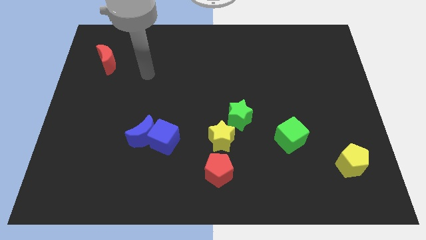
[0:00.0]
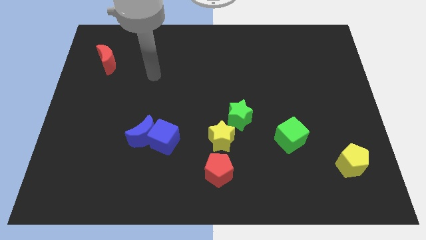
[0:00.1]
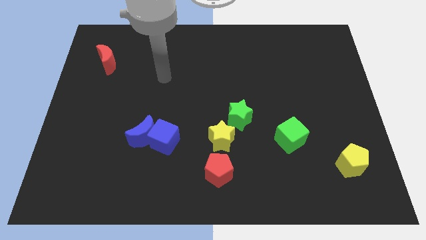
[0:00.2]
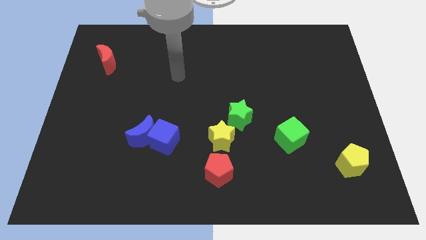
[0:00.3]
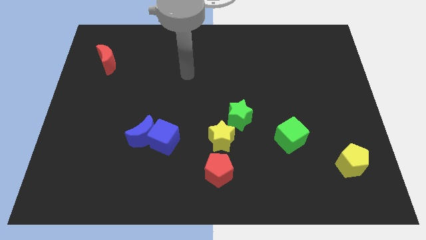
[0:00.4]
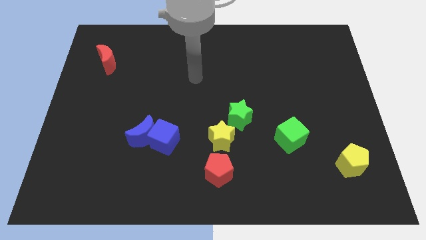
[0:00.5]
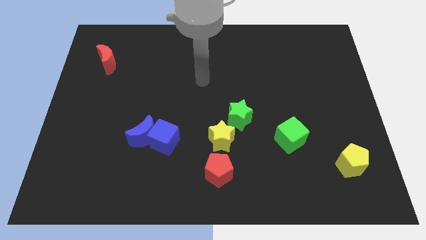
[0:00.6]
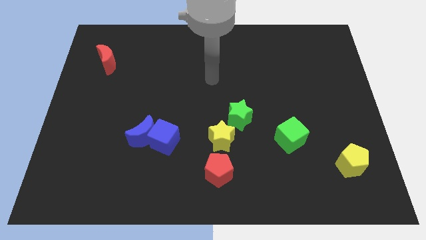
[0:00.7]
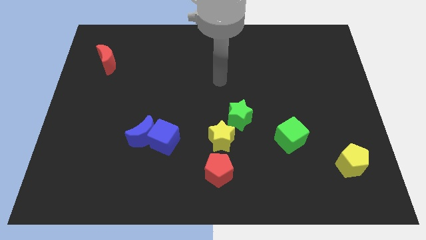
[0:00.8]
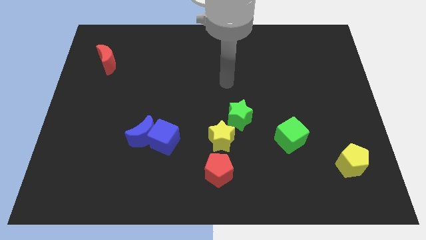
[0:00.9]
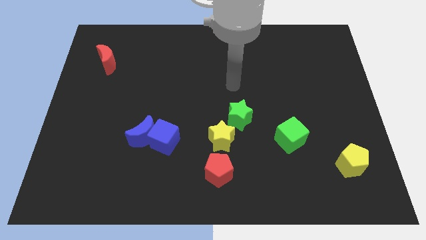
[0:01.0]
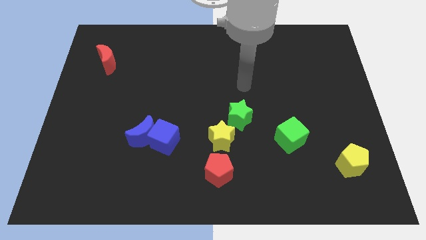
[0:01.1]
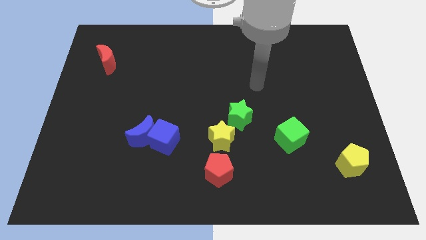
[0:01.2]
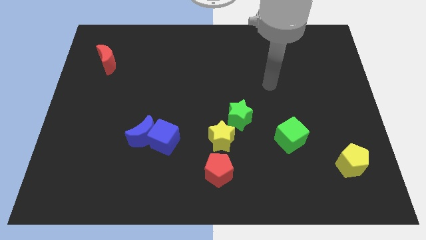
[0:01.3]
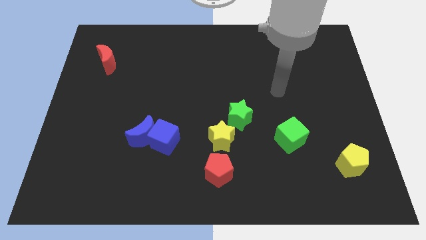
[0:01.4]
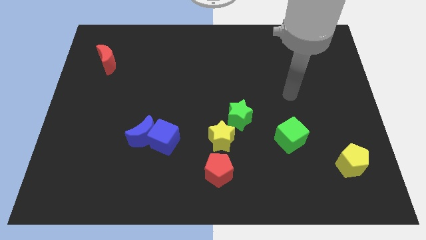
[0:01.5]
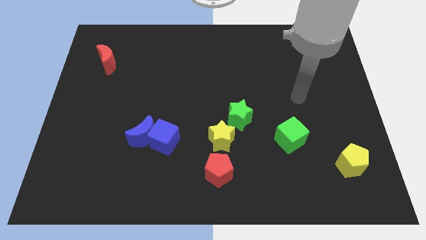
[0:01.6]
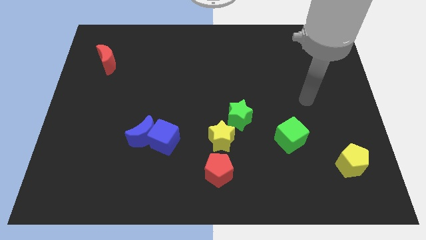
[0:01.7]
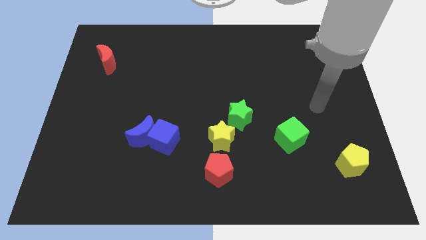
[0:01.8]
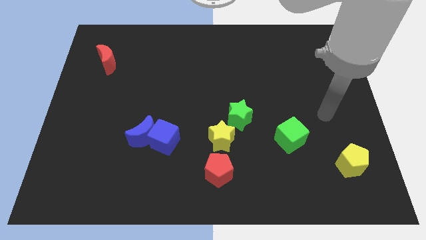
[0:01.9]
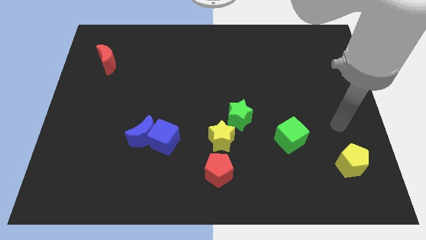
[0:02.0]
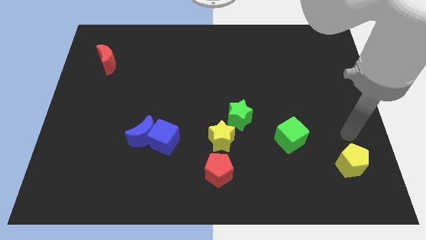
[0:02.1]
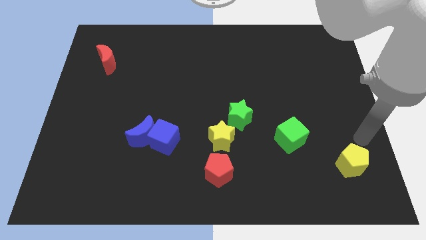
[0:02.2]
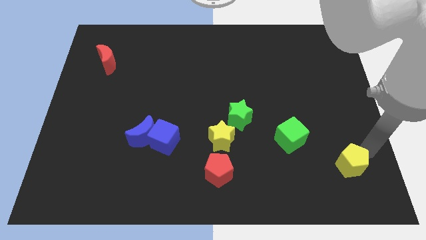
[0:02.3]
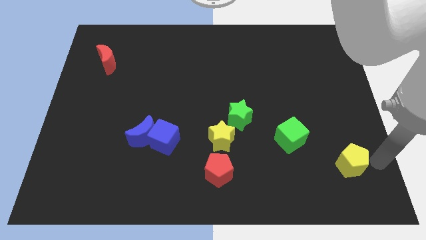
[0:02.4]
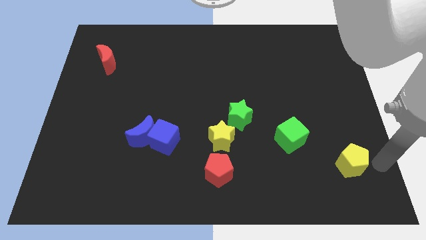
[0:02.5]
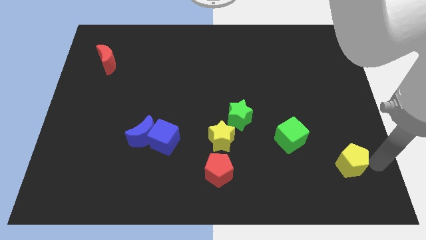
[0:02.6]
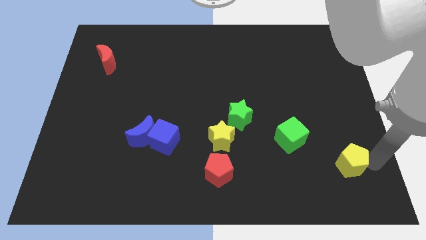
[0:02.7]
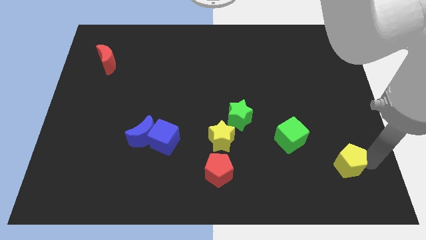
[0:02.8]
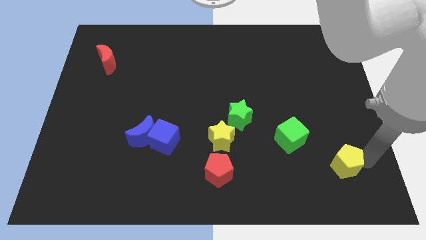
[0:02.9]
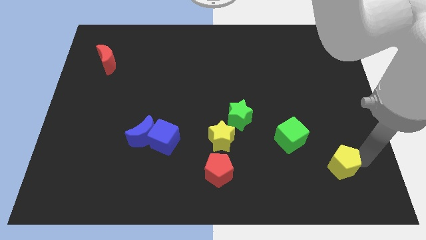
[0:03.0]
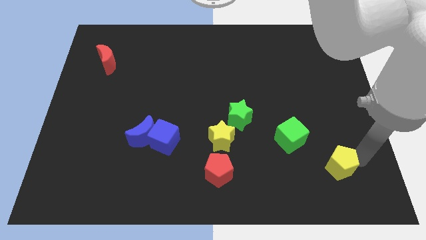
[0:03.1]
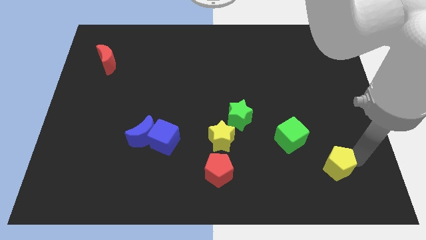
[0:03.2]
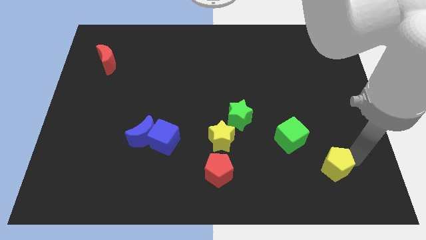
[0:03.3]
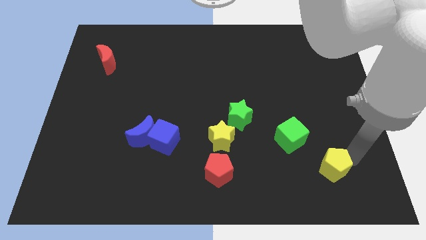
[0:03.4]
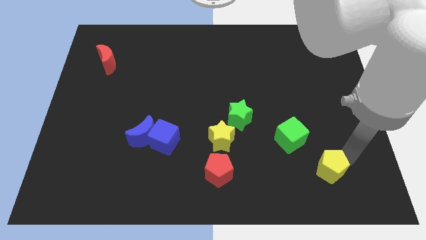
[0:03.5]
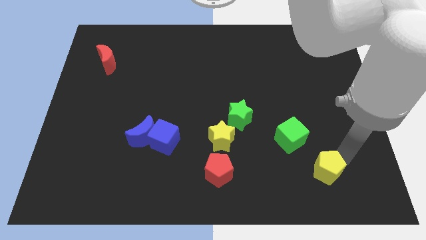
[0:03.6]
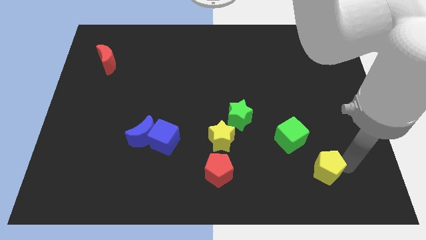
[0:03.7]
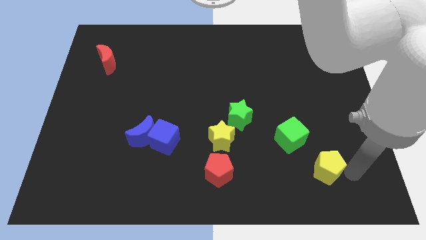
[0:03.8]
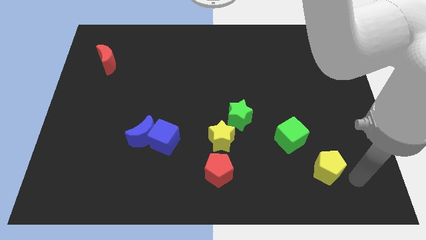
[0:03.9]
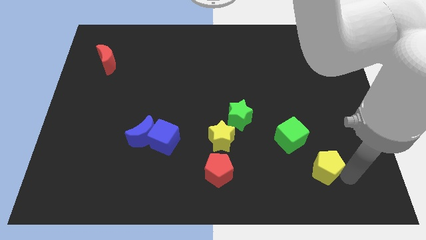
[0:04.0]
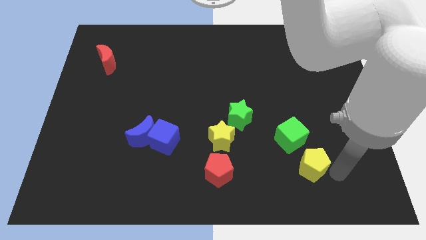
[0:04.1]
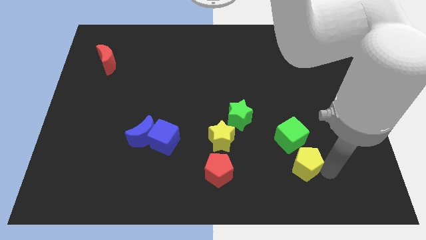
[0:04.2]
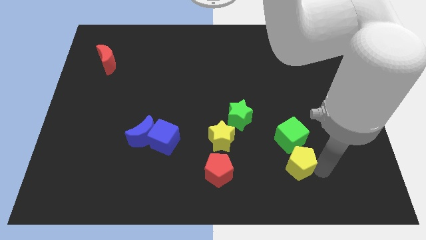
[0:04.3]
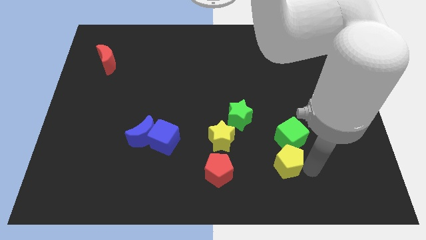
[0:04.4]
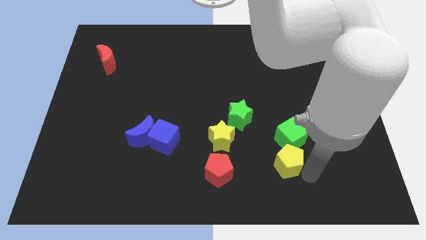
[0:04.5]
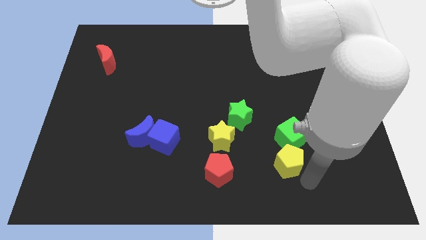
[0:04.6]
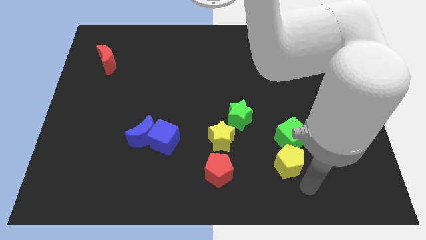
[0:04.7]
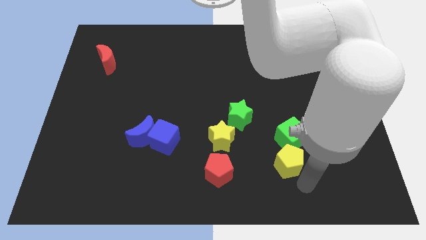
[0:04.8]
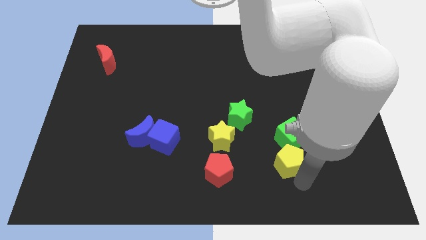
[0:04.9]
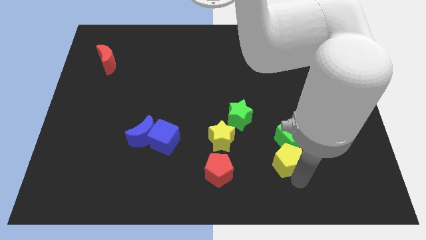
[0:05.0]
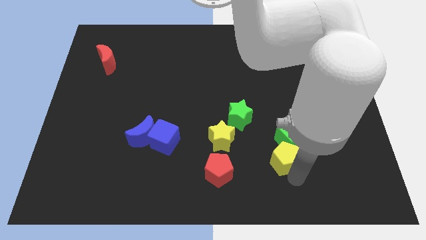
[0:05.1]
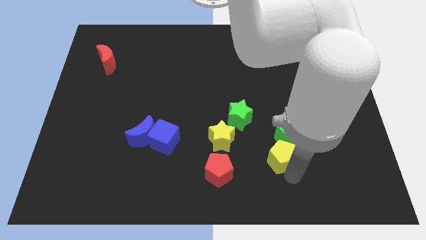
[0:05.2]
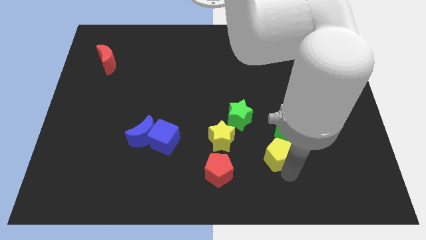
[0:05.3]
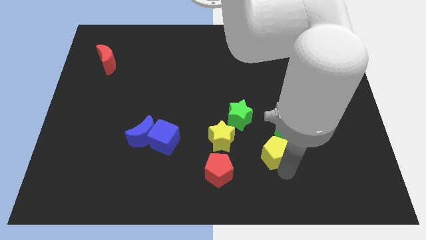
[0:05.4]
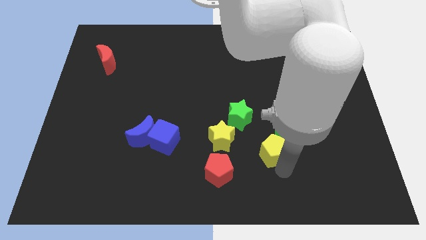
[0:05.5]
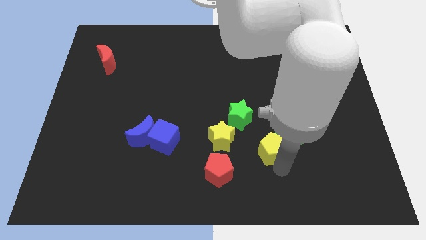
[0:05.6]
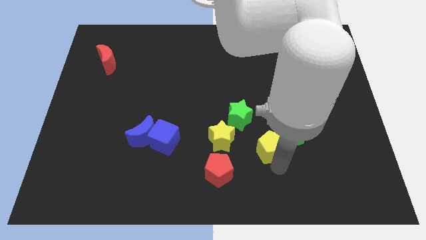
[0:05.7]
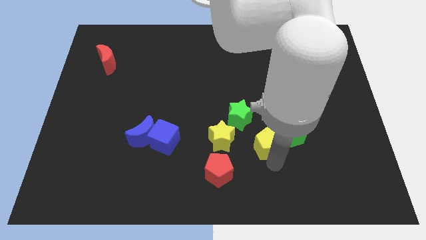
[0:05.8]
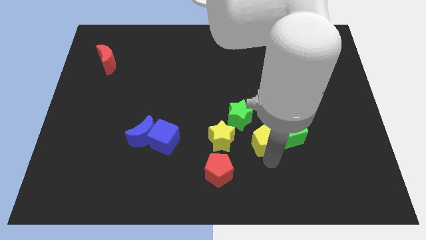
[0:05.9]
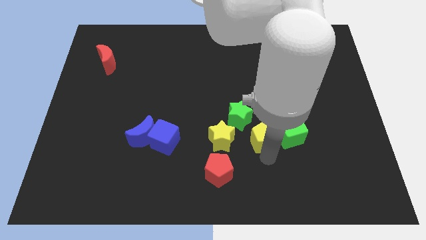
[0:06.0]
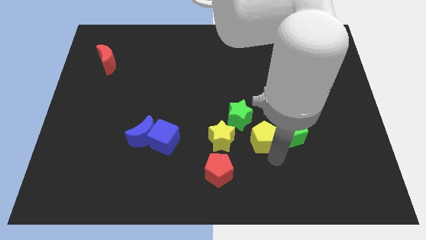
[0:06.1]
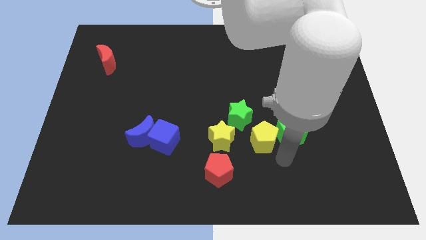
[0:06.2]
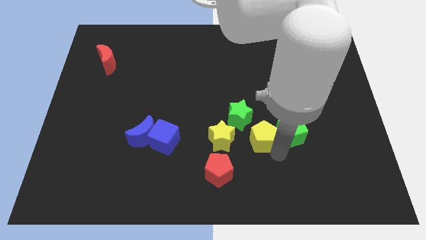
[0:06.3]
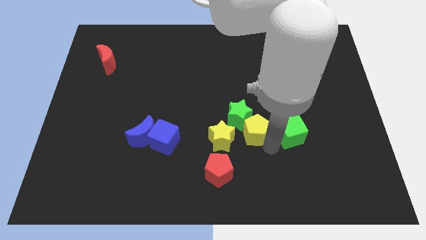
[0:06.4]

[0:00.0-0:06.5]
put the yellow pentagon next to the green star
